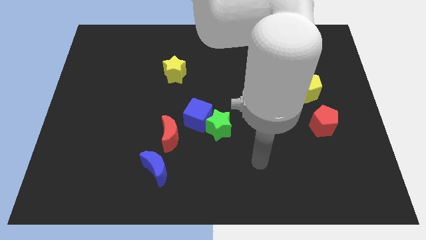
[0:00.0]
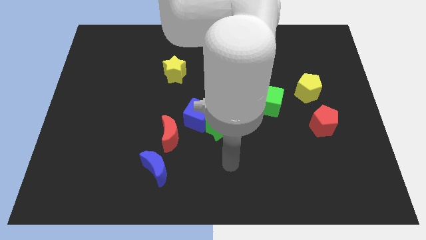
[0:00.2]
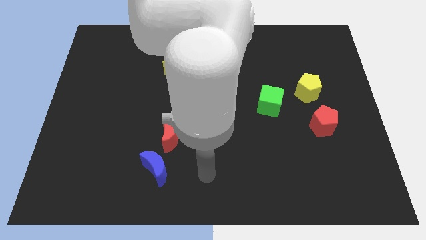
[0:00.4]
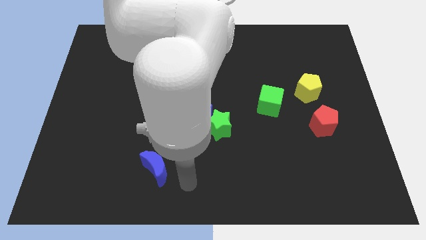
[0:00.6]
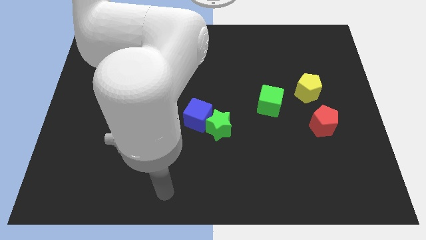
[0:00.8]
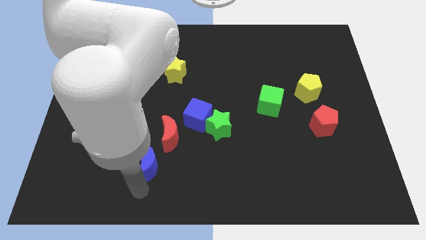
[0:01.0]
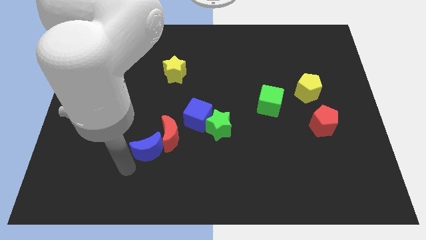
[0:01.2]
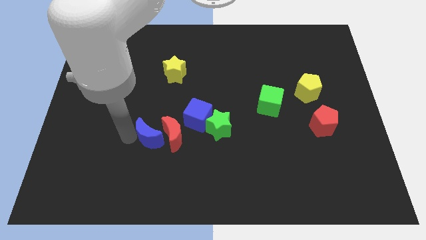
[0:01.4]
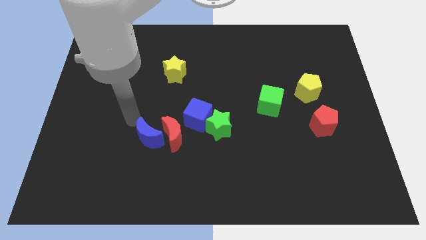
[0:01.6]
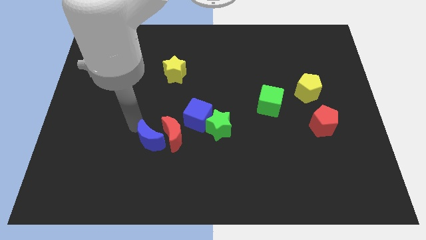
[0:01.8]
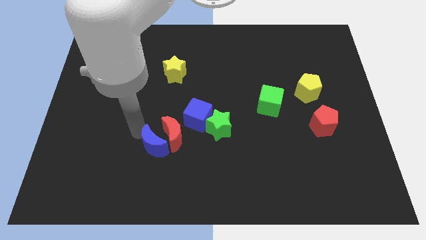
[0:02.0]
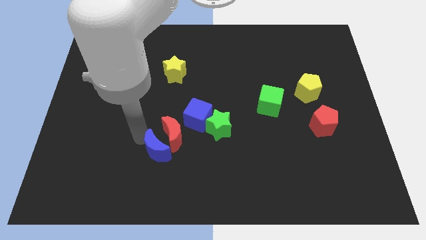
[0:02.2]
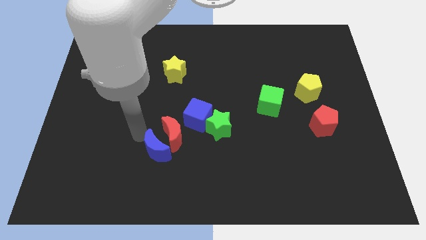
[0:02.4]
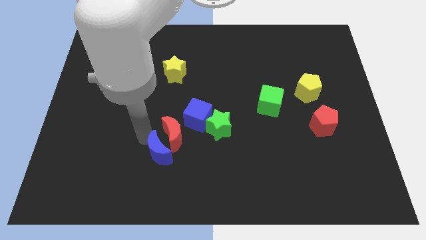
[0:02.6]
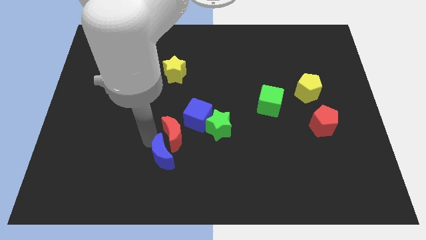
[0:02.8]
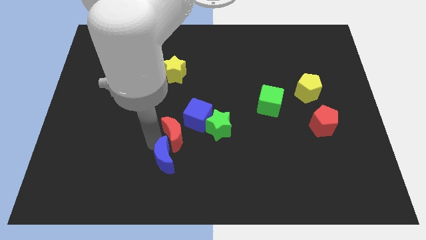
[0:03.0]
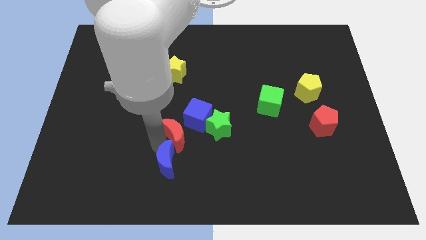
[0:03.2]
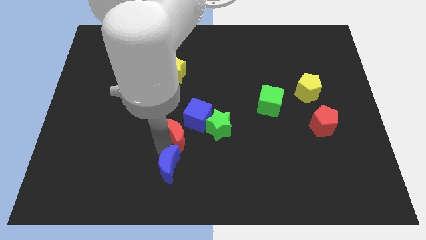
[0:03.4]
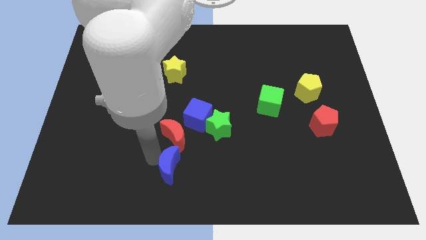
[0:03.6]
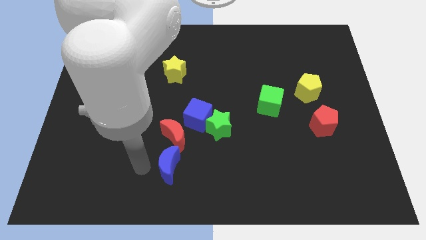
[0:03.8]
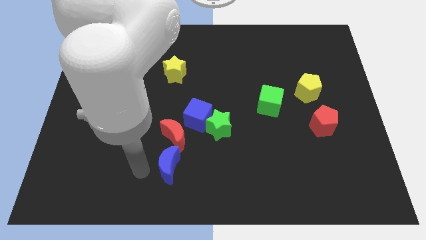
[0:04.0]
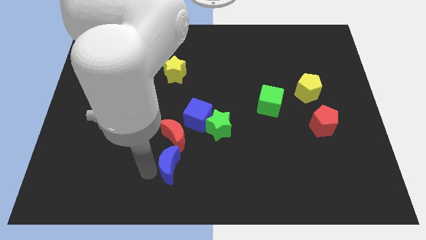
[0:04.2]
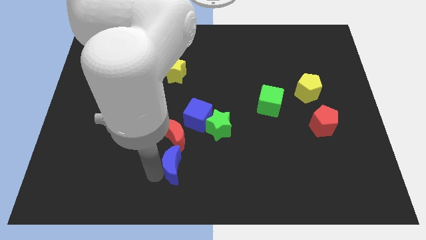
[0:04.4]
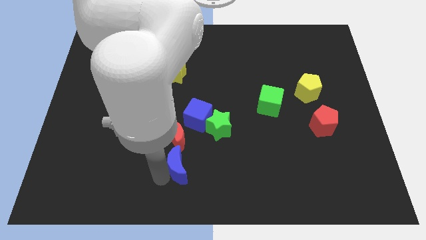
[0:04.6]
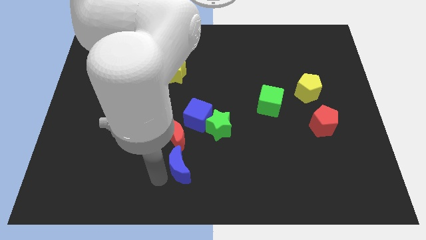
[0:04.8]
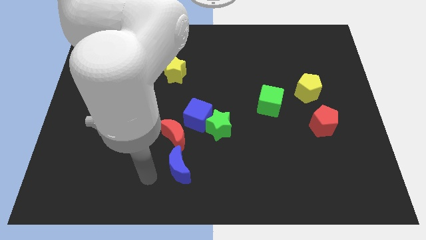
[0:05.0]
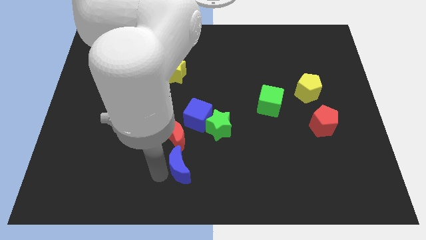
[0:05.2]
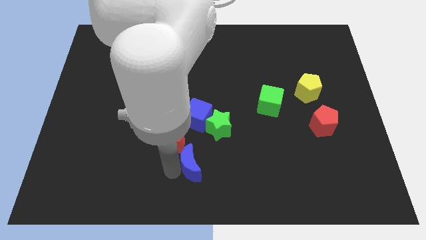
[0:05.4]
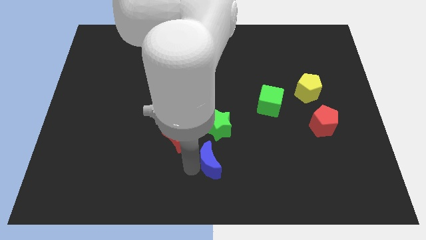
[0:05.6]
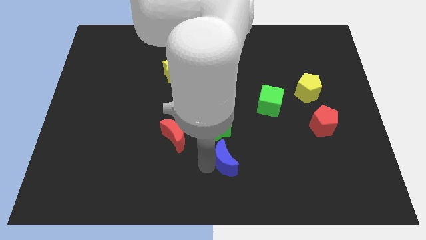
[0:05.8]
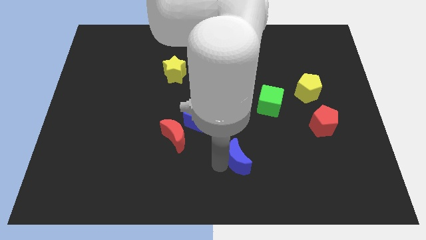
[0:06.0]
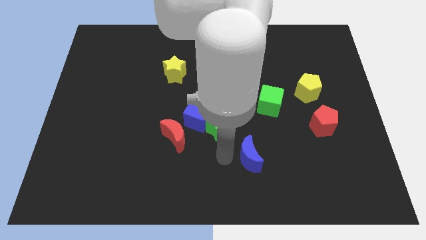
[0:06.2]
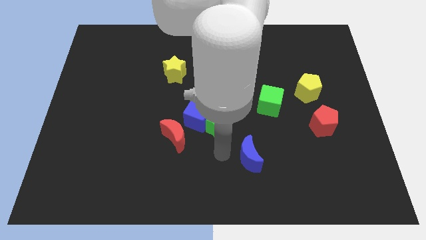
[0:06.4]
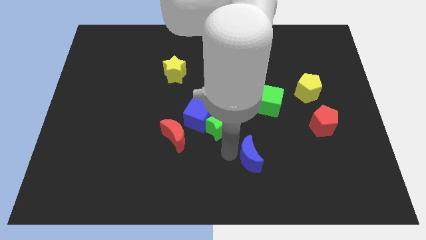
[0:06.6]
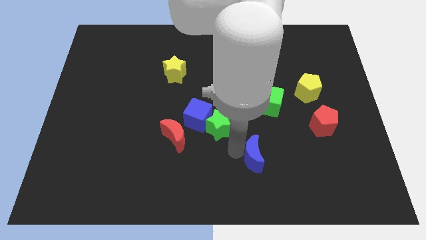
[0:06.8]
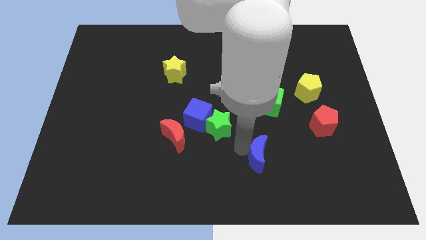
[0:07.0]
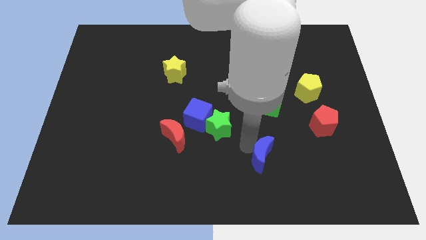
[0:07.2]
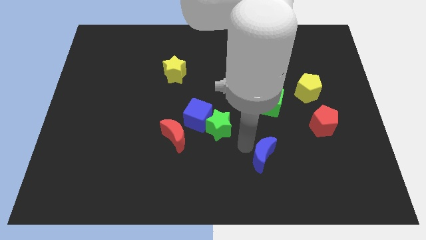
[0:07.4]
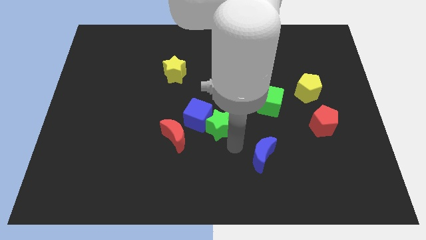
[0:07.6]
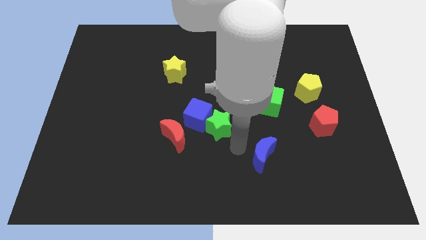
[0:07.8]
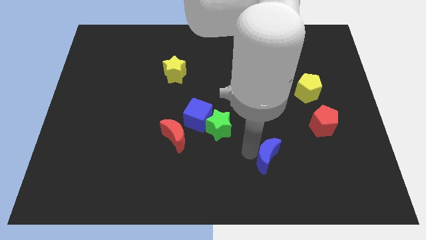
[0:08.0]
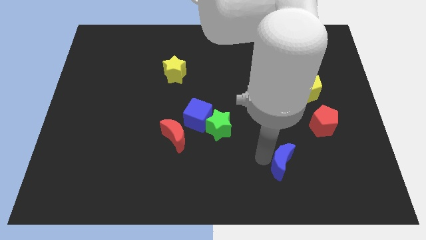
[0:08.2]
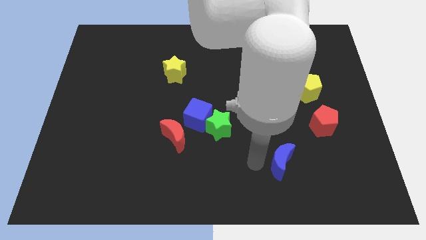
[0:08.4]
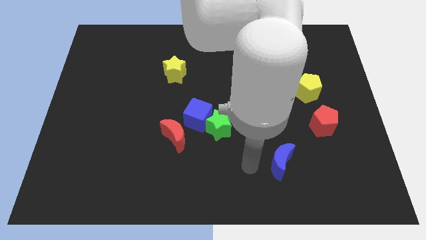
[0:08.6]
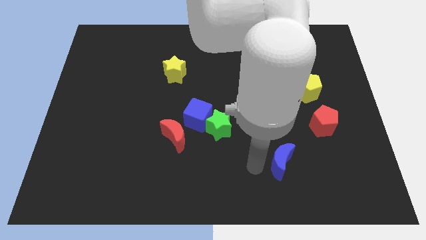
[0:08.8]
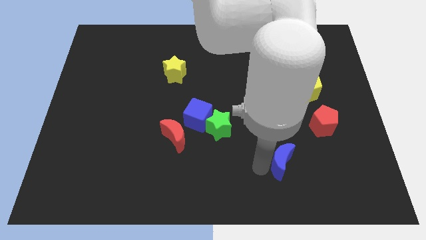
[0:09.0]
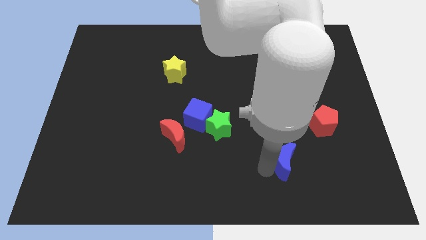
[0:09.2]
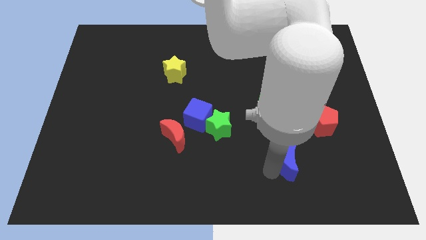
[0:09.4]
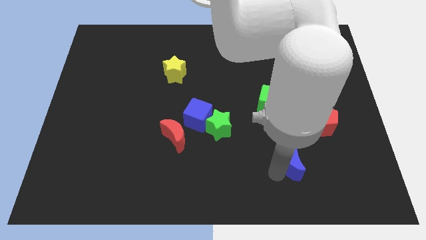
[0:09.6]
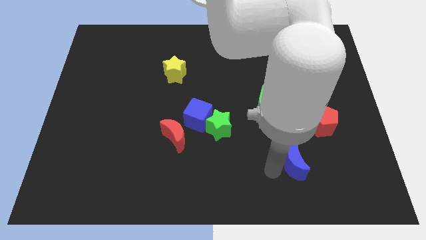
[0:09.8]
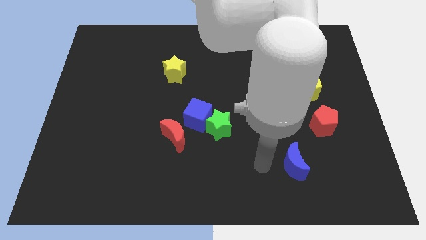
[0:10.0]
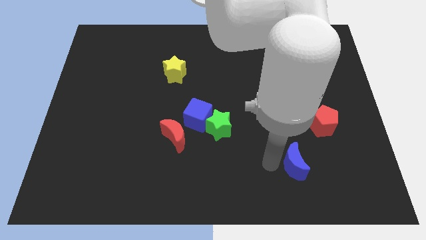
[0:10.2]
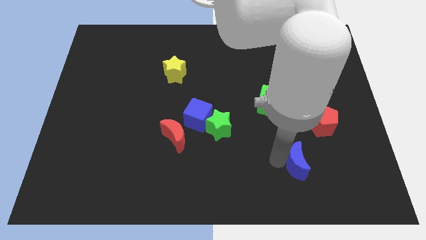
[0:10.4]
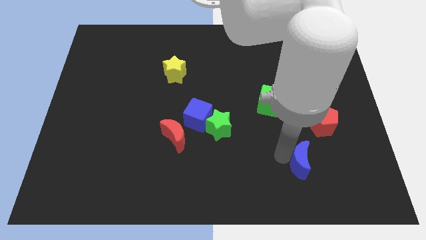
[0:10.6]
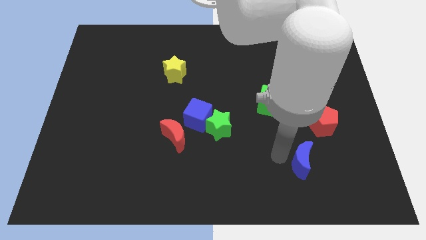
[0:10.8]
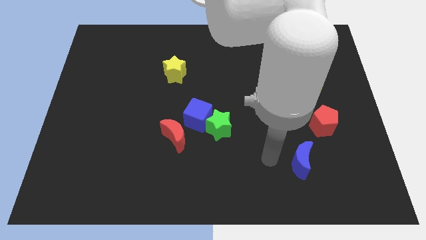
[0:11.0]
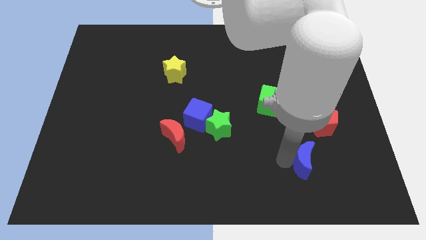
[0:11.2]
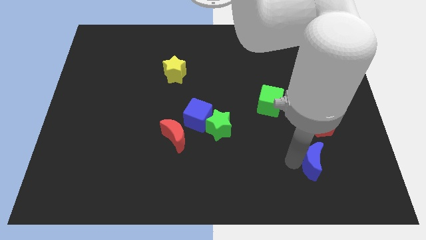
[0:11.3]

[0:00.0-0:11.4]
slide the blue moon below the red pentagon
